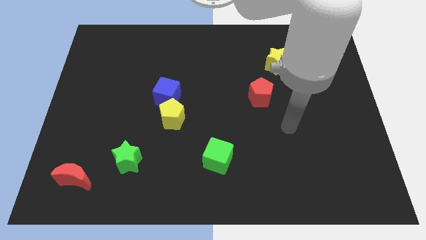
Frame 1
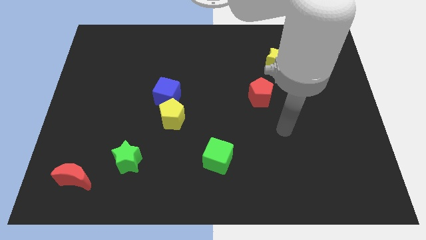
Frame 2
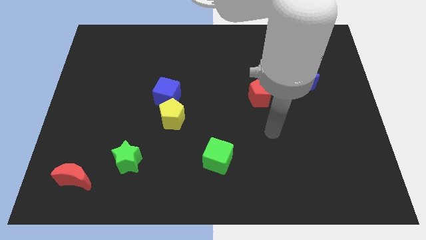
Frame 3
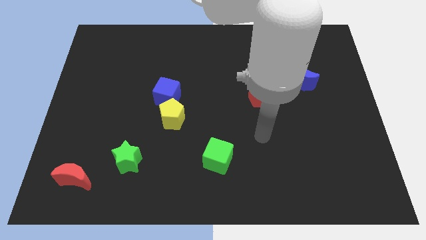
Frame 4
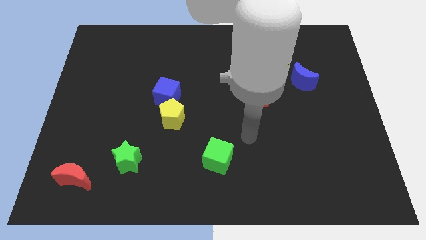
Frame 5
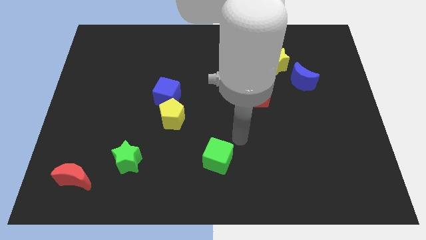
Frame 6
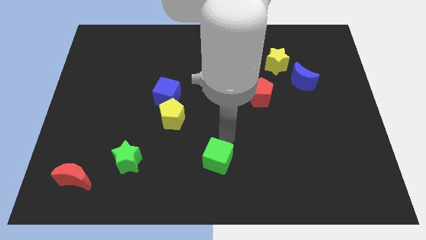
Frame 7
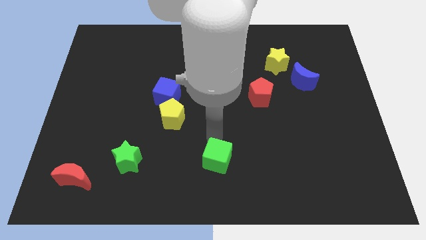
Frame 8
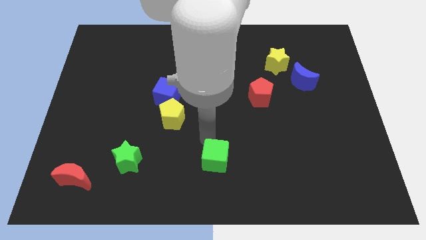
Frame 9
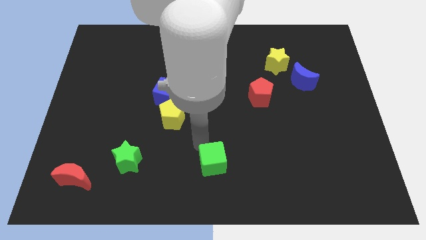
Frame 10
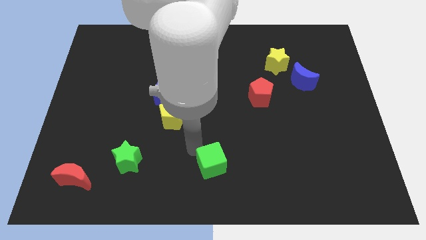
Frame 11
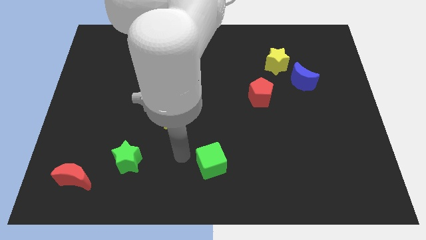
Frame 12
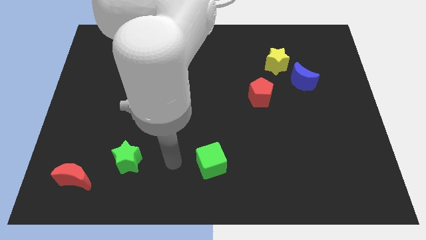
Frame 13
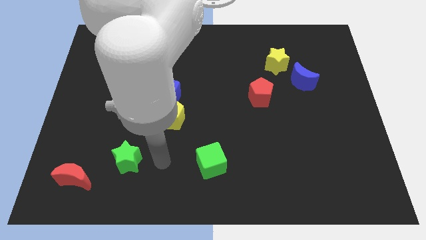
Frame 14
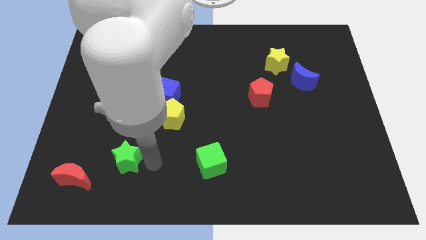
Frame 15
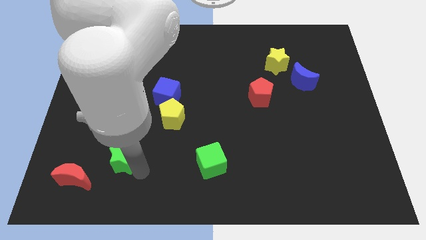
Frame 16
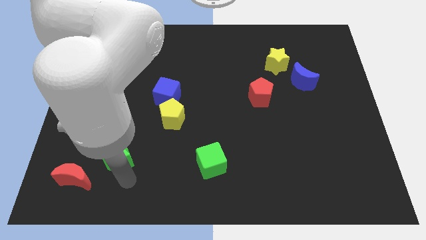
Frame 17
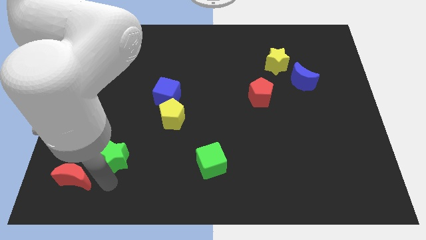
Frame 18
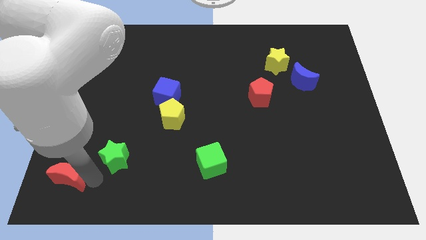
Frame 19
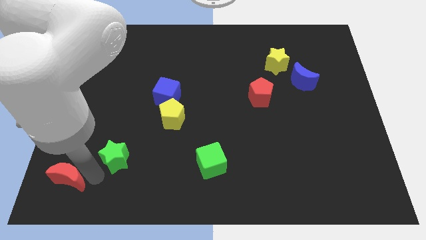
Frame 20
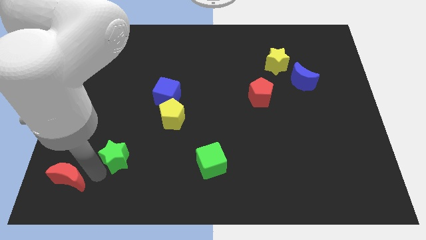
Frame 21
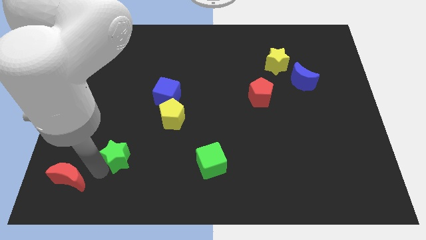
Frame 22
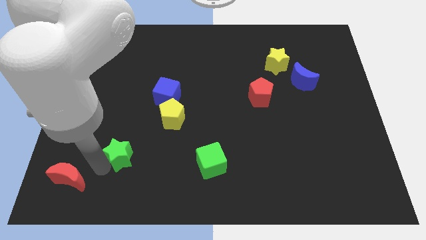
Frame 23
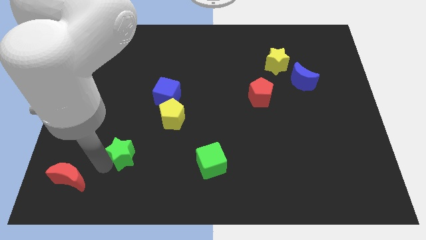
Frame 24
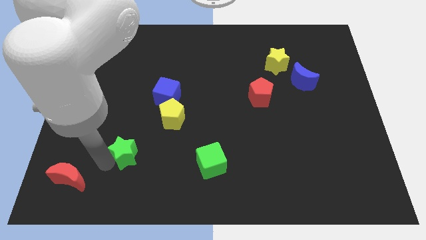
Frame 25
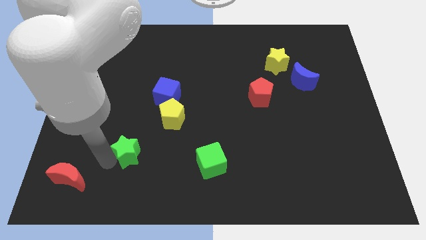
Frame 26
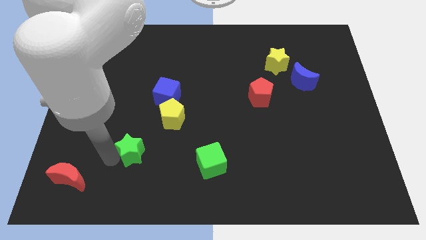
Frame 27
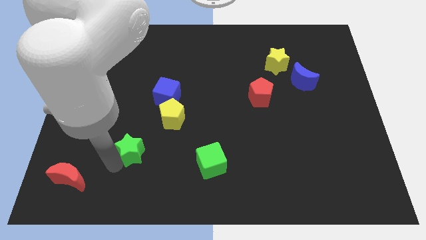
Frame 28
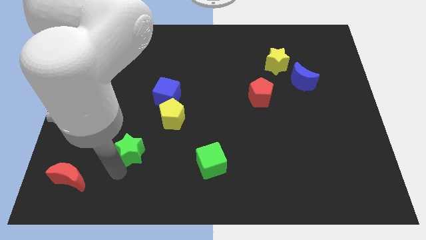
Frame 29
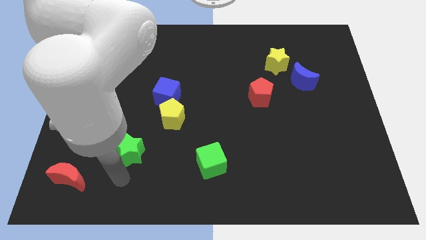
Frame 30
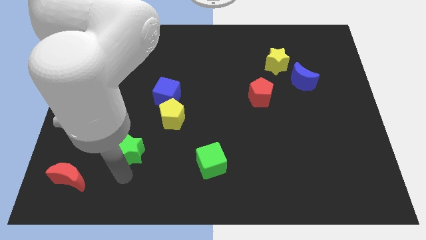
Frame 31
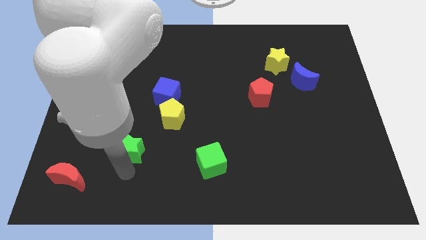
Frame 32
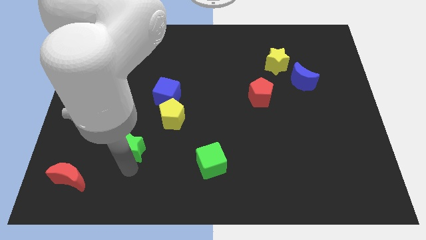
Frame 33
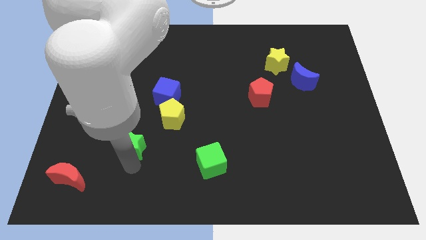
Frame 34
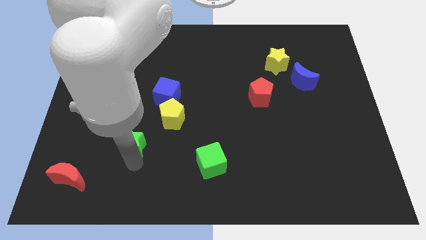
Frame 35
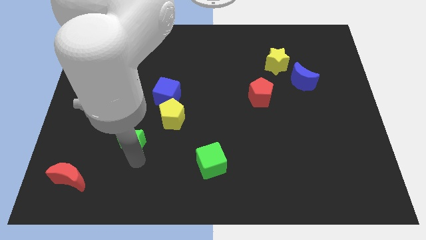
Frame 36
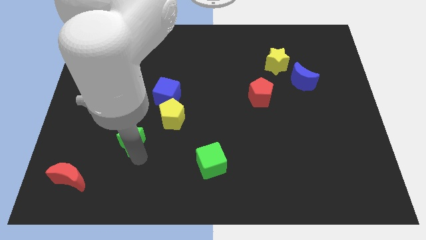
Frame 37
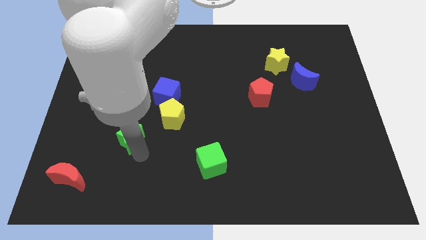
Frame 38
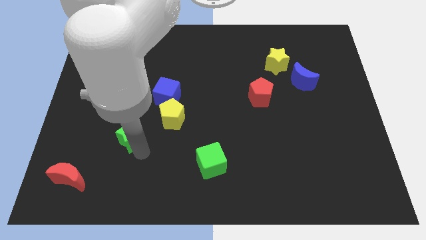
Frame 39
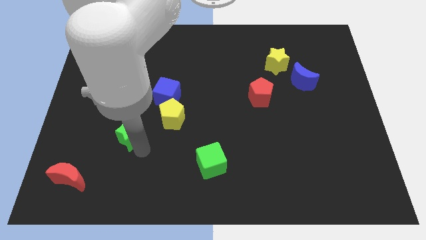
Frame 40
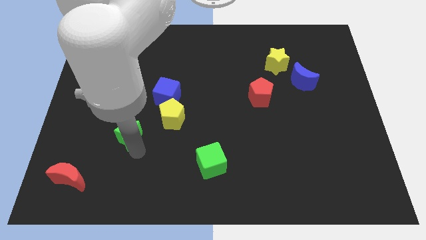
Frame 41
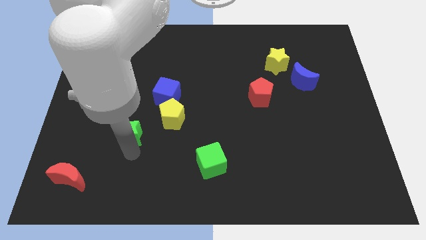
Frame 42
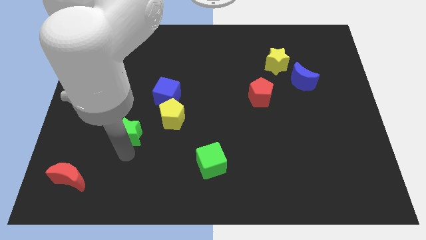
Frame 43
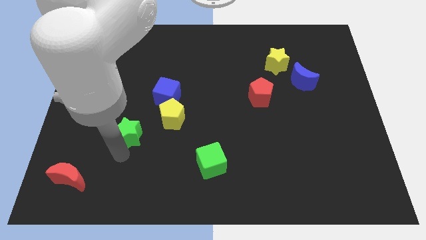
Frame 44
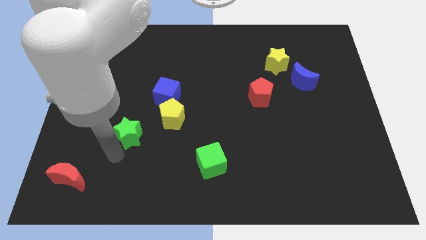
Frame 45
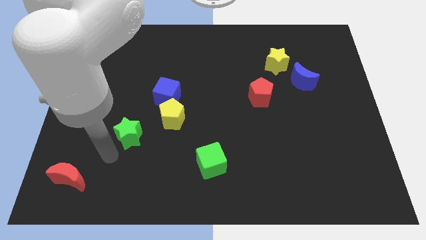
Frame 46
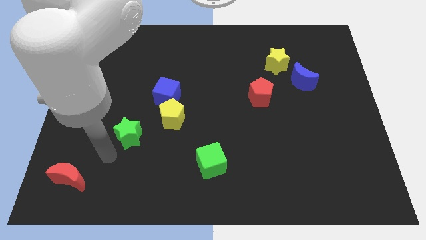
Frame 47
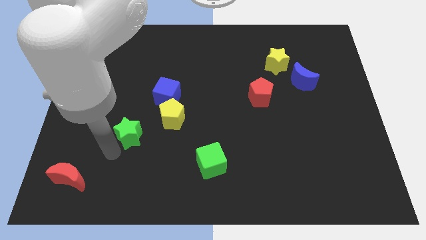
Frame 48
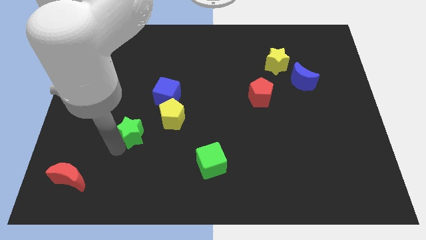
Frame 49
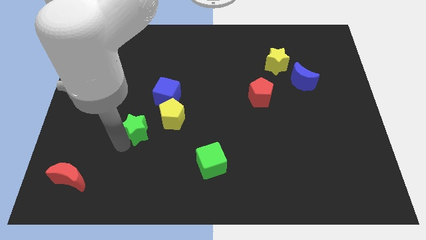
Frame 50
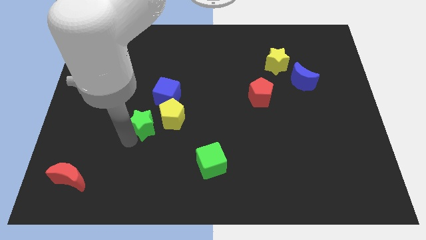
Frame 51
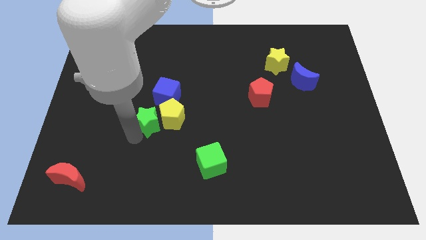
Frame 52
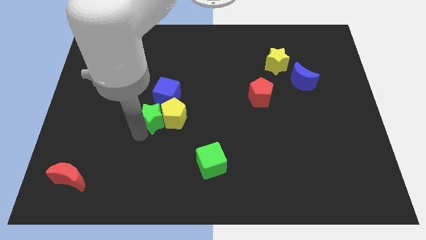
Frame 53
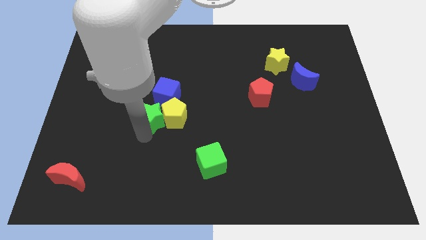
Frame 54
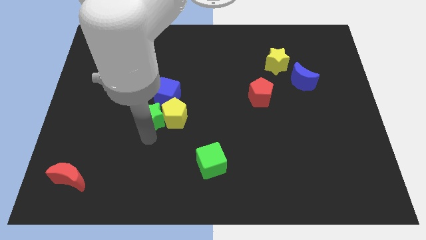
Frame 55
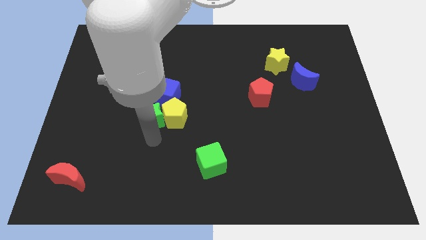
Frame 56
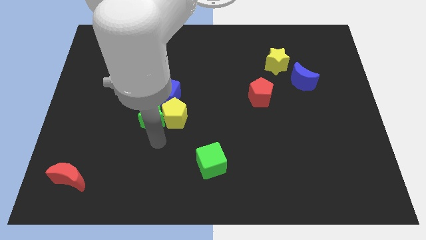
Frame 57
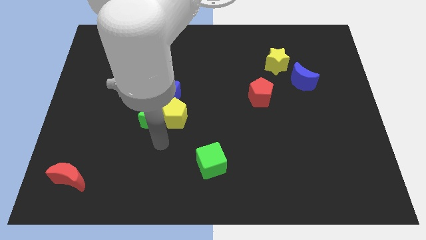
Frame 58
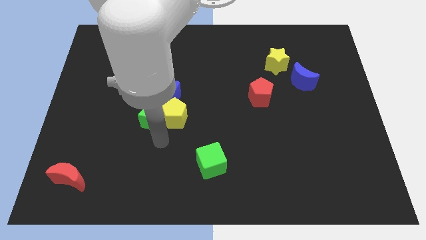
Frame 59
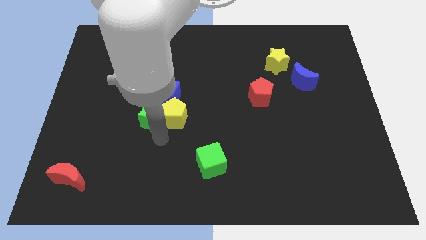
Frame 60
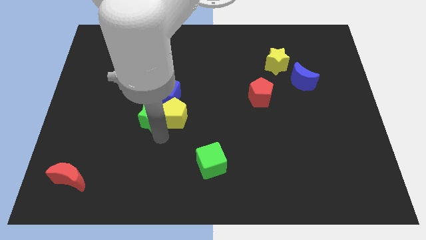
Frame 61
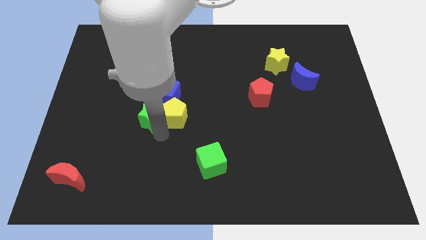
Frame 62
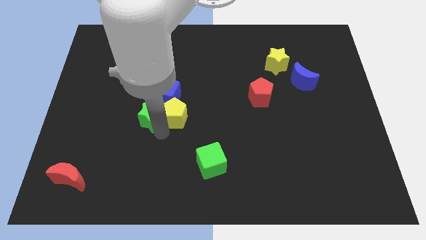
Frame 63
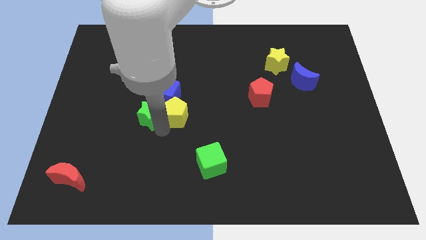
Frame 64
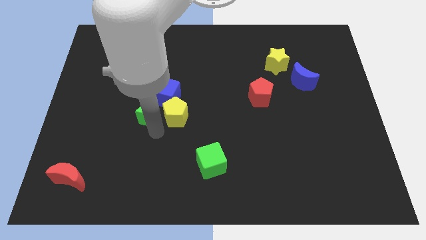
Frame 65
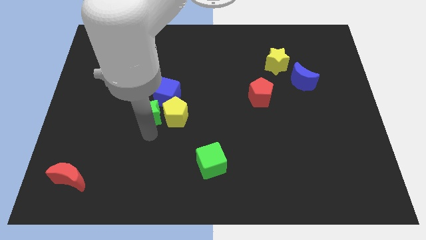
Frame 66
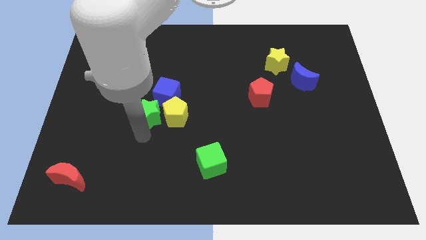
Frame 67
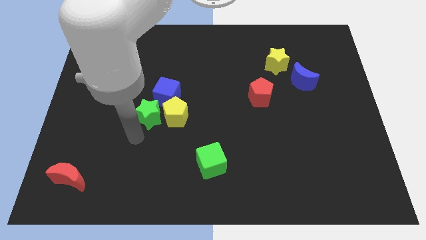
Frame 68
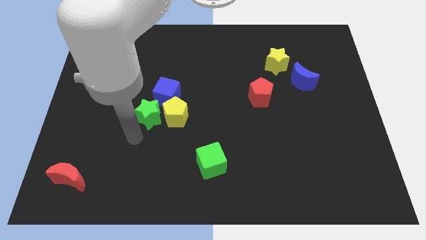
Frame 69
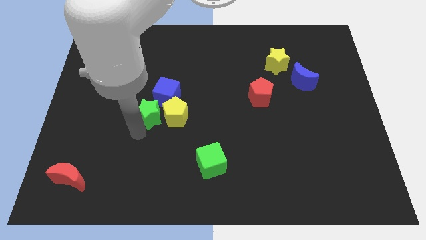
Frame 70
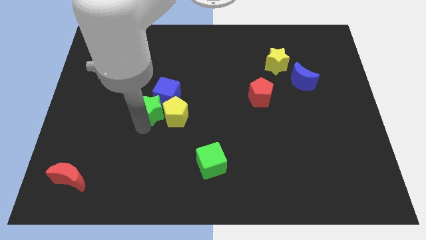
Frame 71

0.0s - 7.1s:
push the green star next to the blue cube

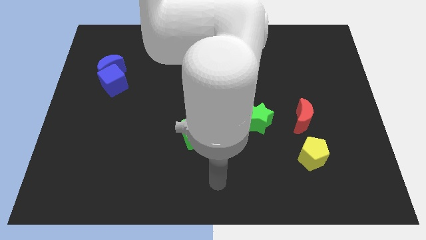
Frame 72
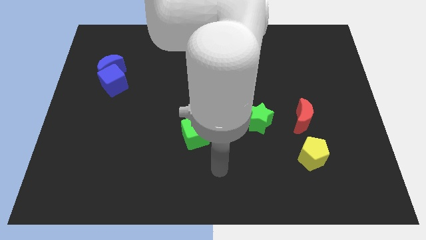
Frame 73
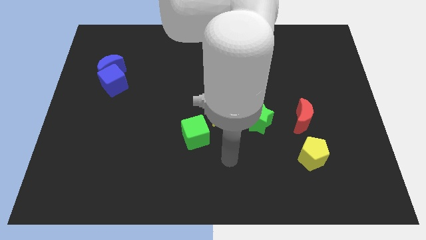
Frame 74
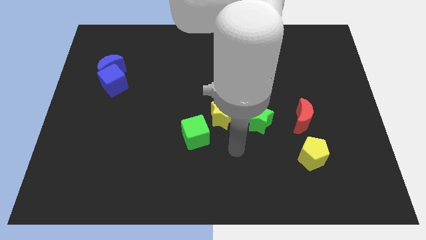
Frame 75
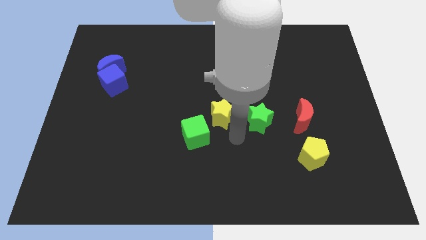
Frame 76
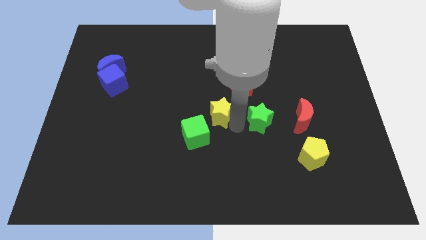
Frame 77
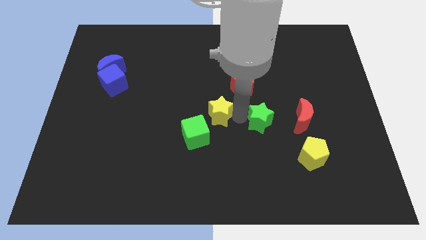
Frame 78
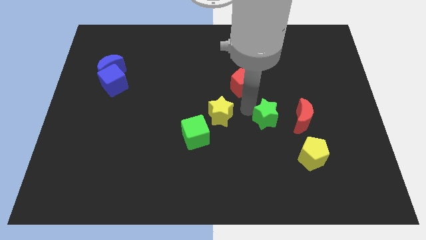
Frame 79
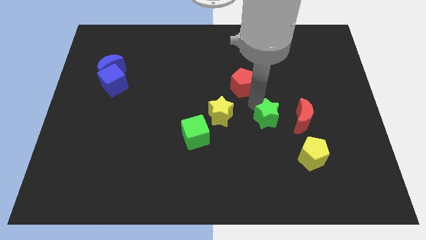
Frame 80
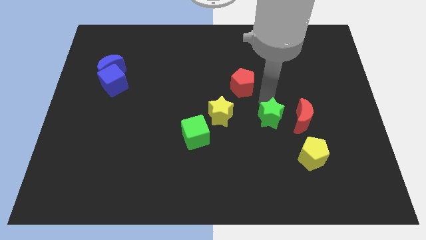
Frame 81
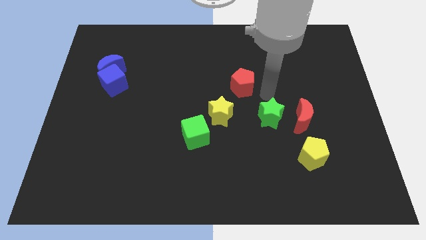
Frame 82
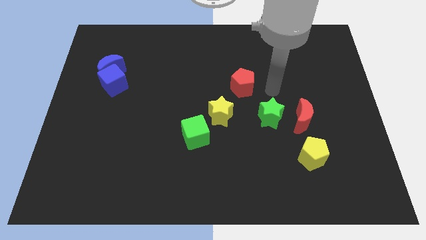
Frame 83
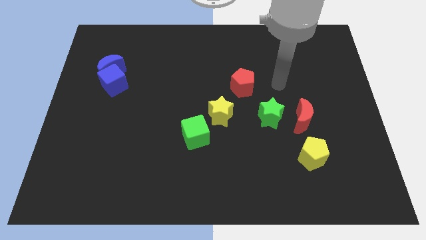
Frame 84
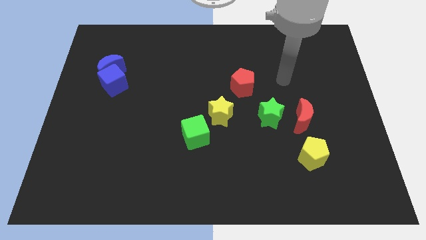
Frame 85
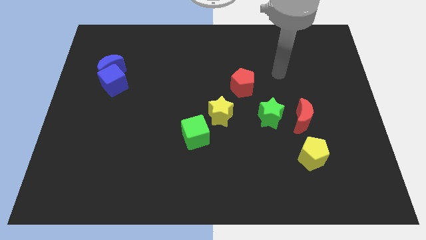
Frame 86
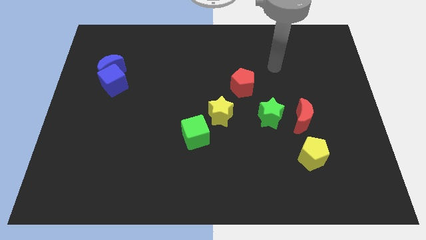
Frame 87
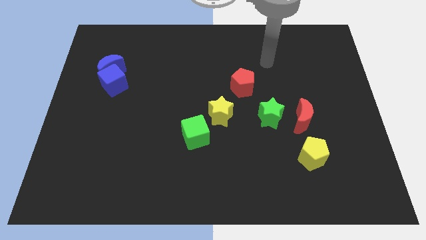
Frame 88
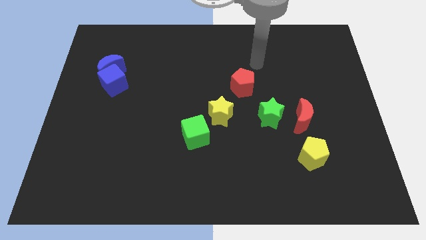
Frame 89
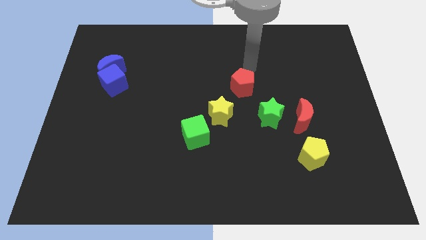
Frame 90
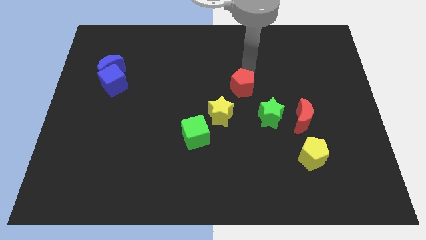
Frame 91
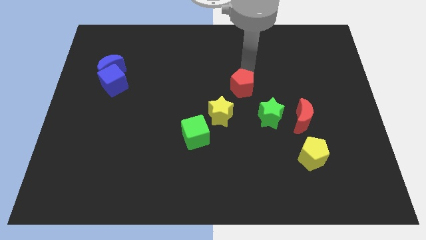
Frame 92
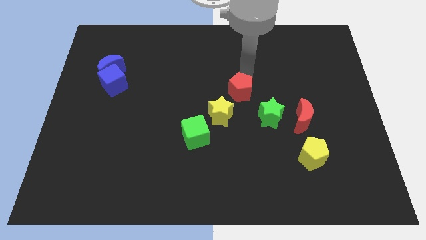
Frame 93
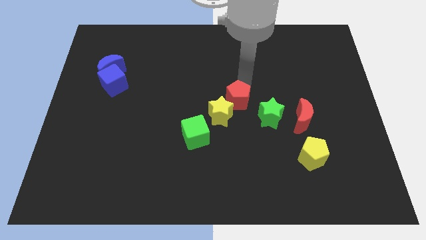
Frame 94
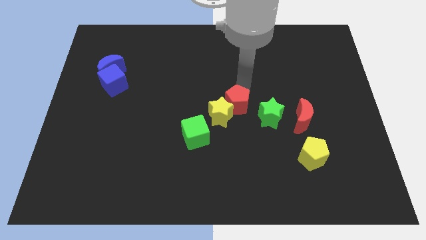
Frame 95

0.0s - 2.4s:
put the red pentagon towards the yellow star
